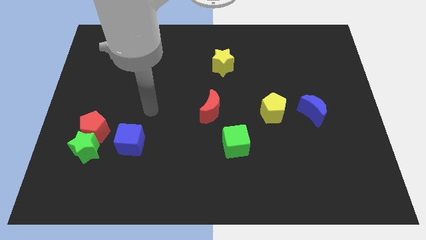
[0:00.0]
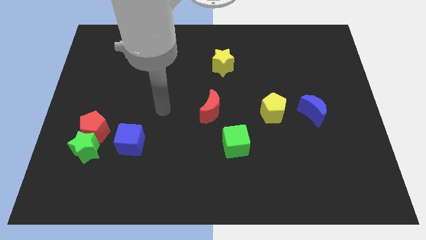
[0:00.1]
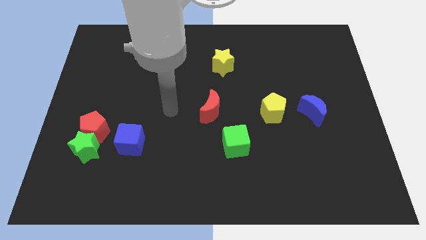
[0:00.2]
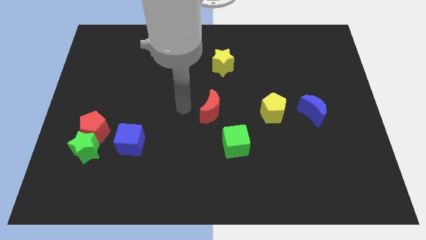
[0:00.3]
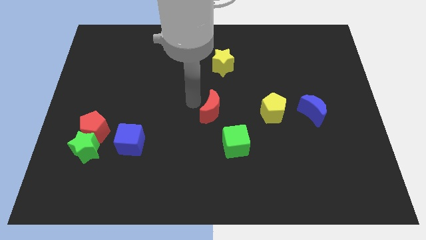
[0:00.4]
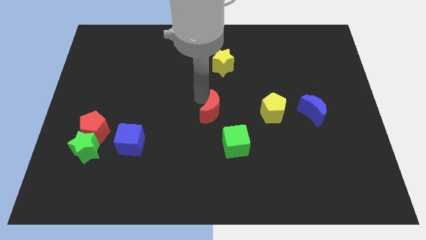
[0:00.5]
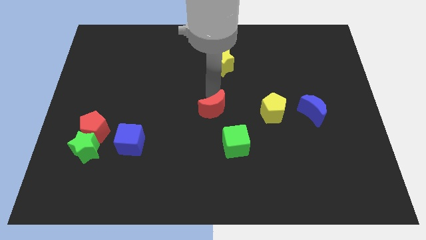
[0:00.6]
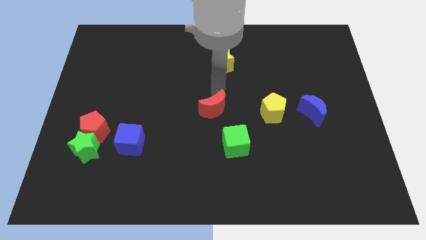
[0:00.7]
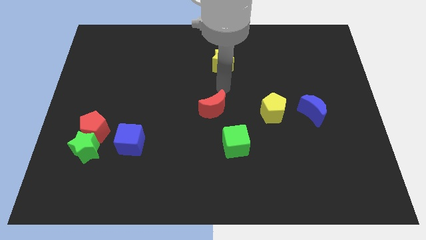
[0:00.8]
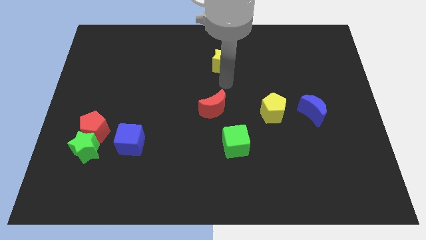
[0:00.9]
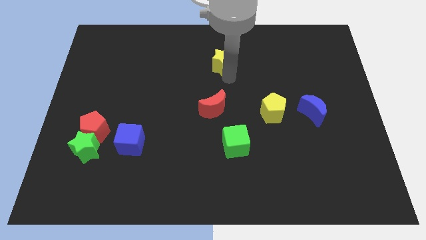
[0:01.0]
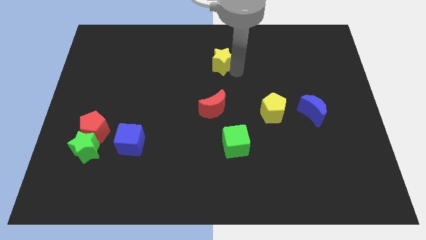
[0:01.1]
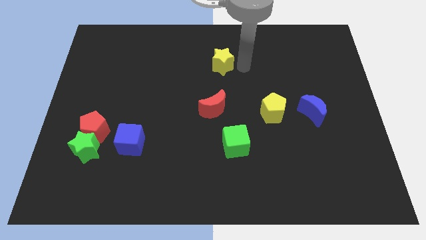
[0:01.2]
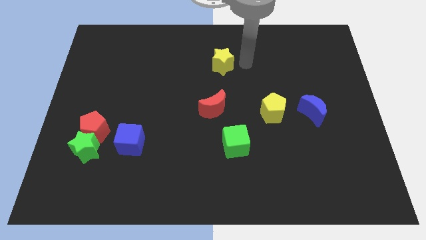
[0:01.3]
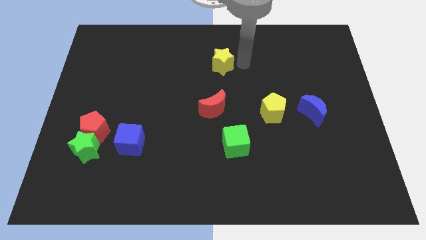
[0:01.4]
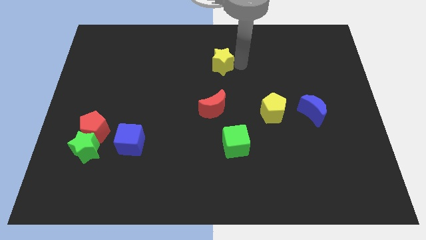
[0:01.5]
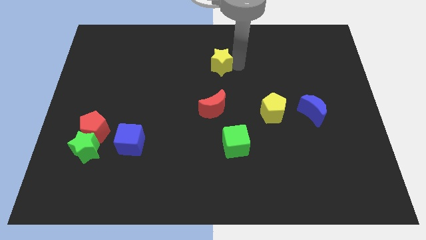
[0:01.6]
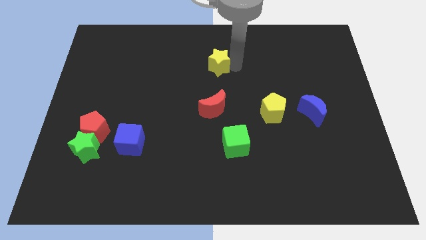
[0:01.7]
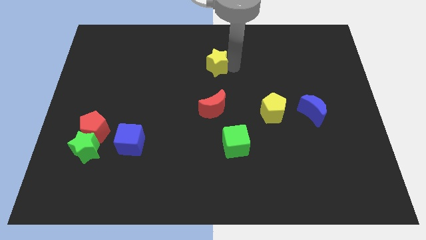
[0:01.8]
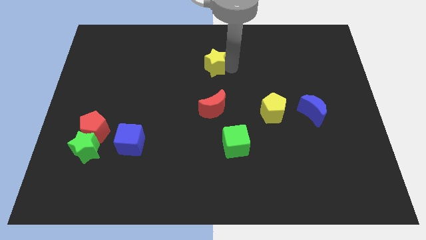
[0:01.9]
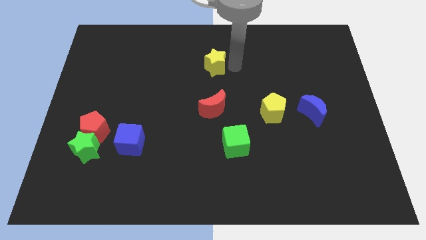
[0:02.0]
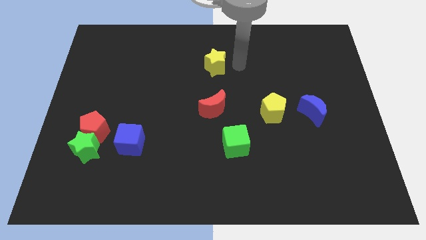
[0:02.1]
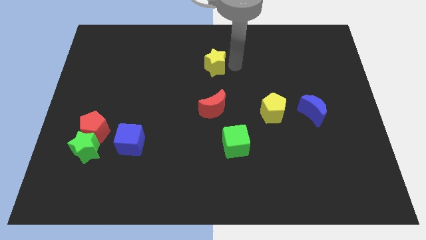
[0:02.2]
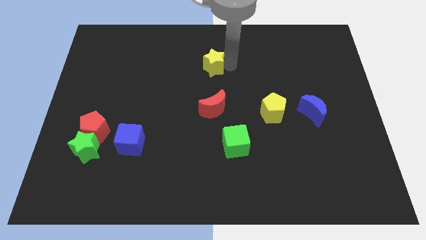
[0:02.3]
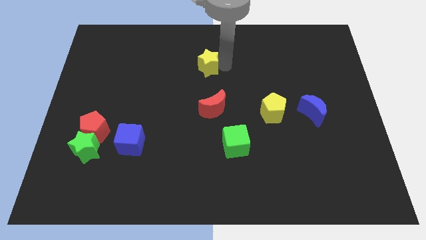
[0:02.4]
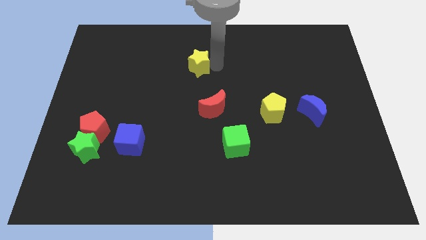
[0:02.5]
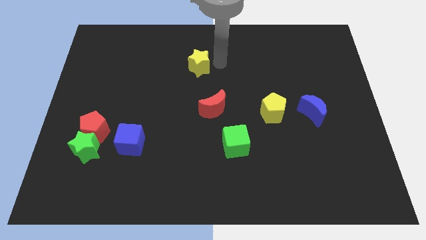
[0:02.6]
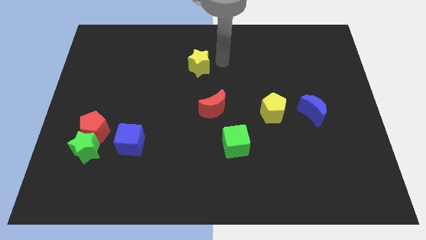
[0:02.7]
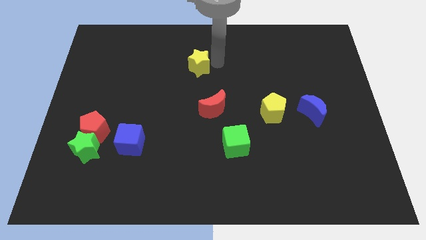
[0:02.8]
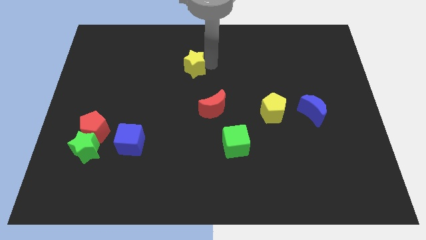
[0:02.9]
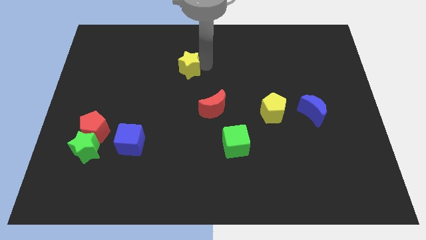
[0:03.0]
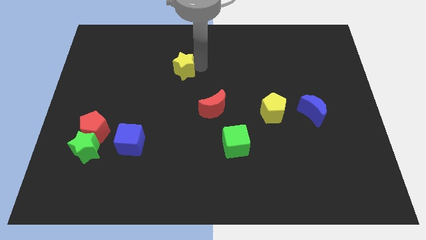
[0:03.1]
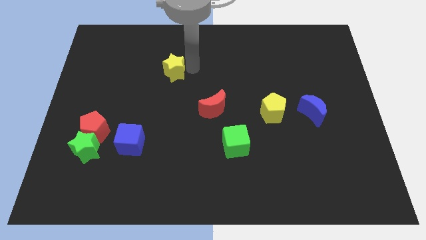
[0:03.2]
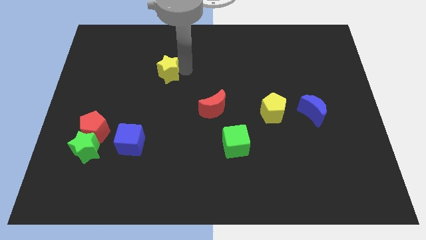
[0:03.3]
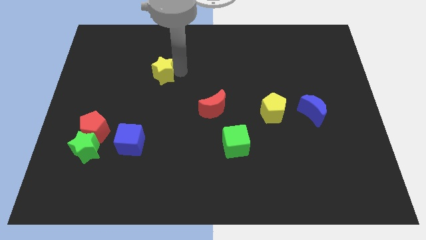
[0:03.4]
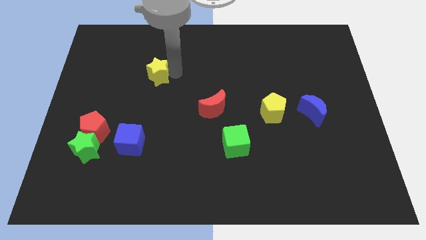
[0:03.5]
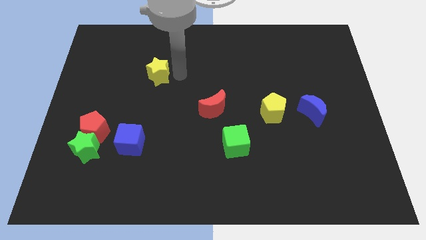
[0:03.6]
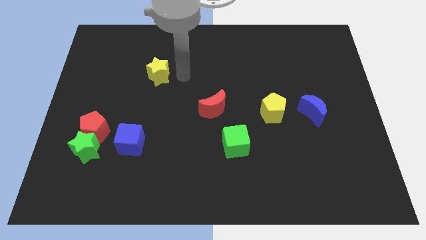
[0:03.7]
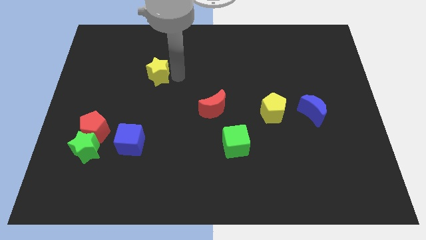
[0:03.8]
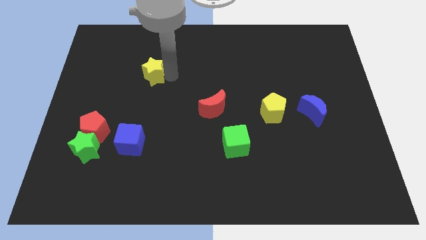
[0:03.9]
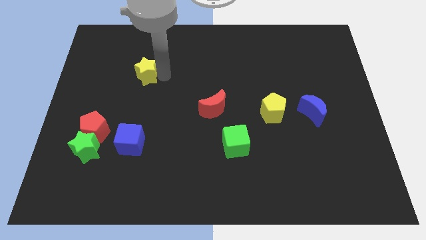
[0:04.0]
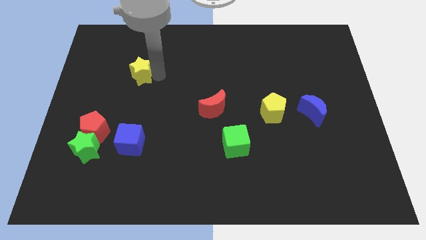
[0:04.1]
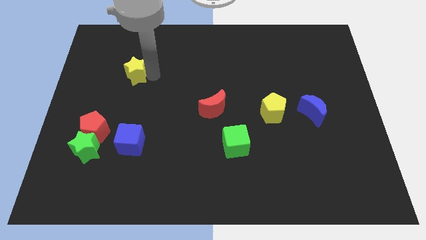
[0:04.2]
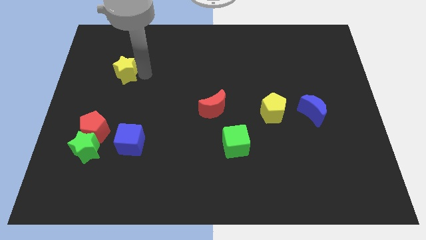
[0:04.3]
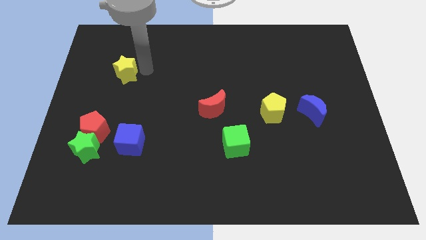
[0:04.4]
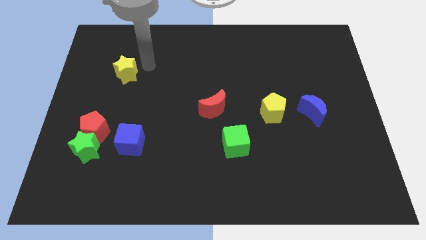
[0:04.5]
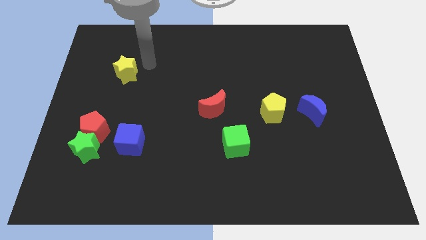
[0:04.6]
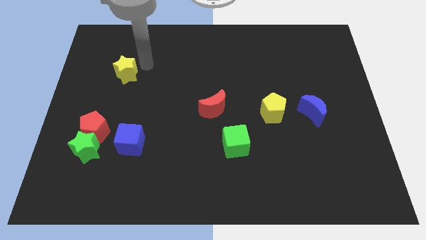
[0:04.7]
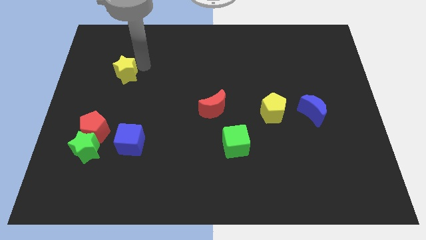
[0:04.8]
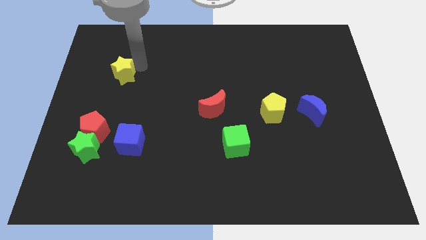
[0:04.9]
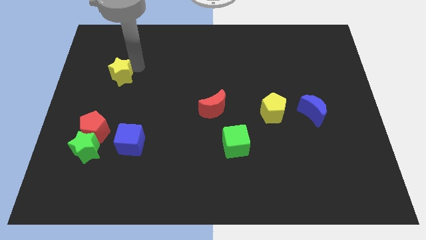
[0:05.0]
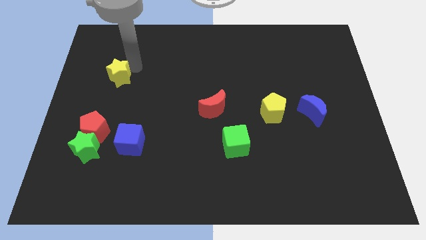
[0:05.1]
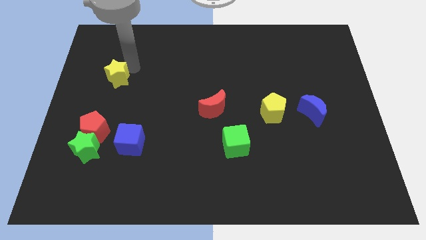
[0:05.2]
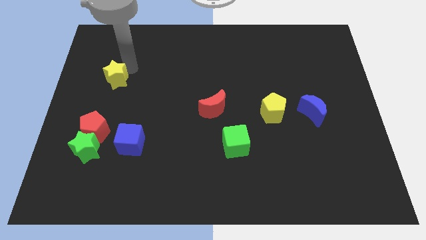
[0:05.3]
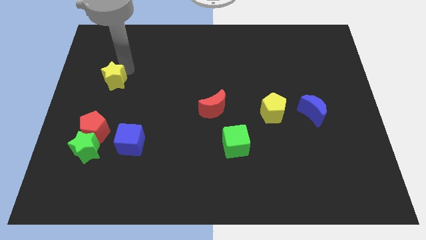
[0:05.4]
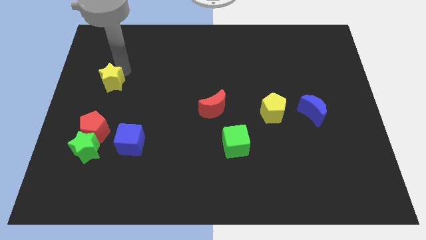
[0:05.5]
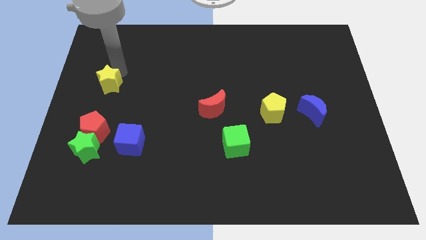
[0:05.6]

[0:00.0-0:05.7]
slide the yellow star to the left side
